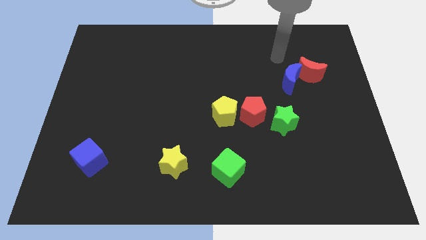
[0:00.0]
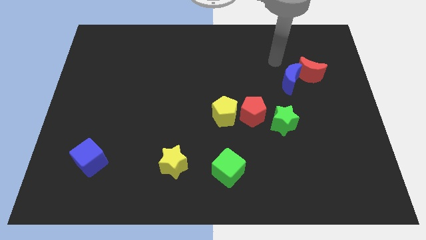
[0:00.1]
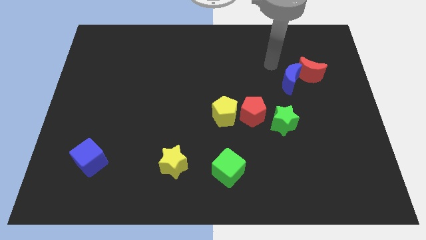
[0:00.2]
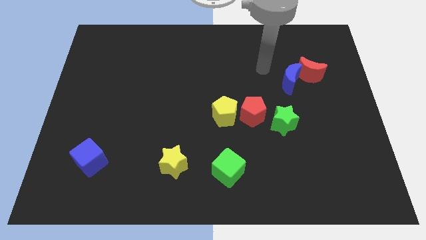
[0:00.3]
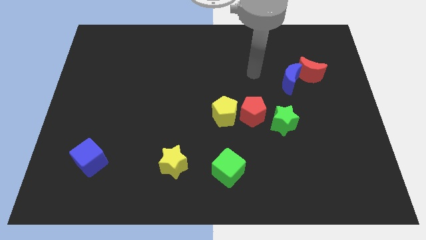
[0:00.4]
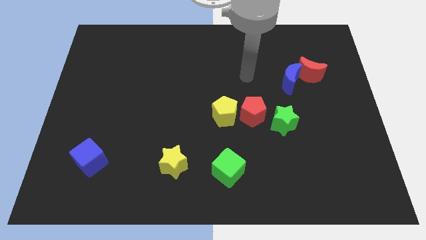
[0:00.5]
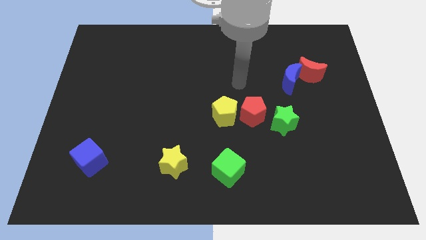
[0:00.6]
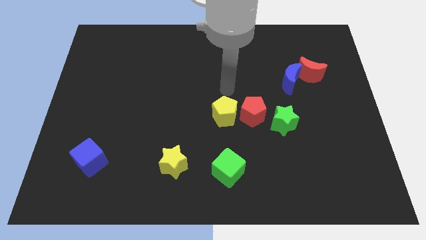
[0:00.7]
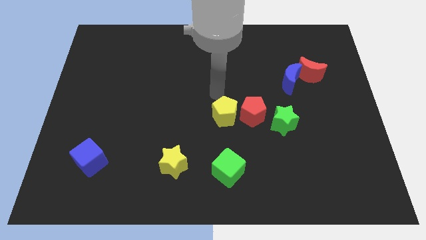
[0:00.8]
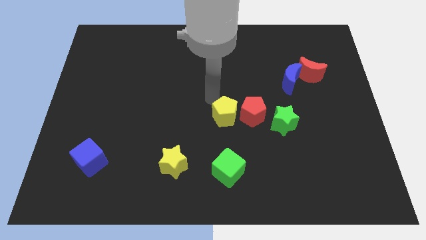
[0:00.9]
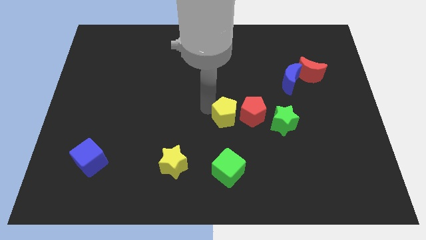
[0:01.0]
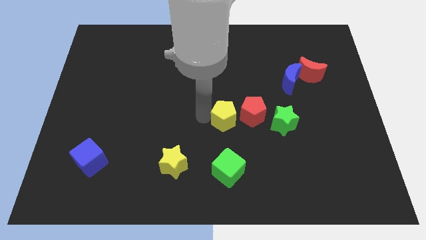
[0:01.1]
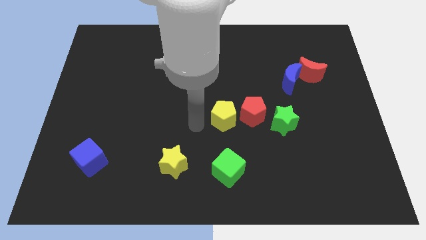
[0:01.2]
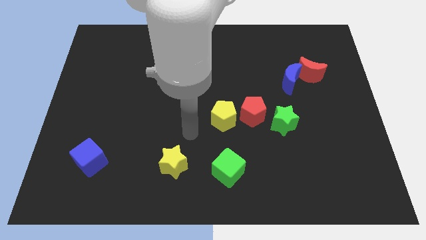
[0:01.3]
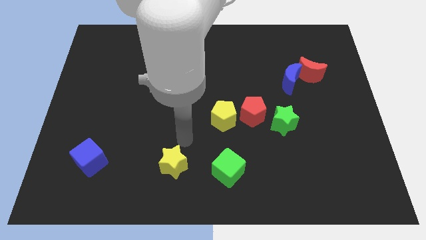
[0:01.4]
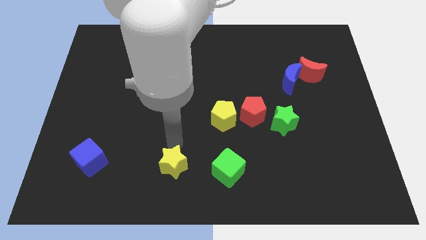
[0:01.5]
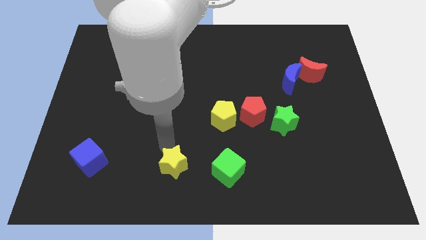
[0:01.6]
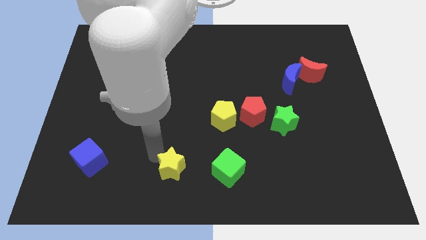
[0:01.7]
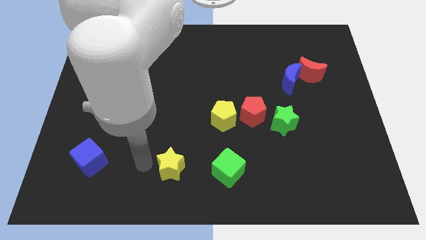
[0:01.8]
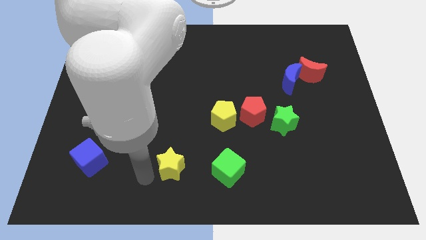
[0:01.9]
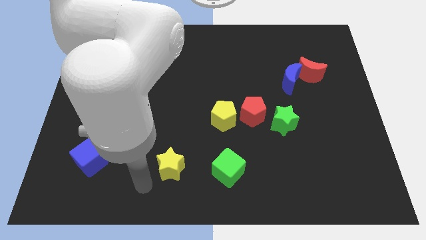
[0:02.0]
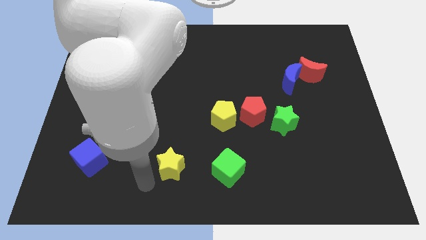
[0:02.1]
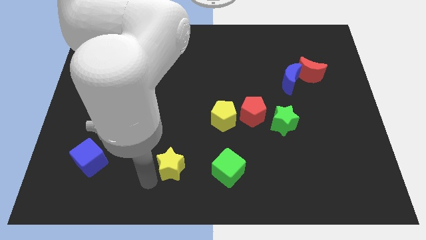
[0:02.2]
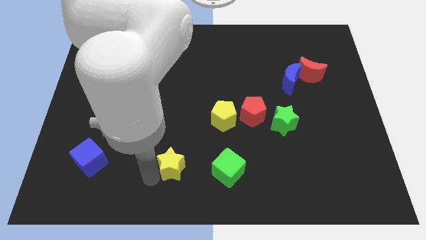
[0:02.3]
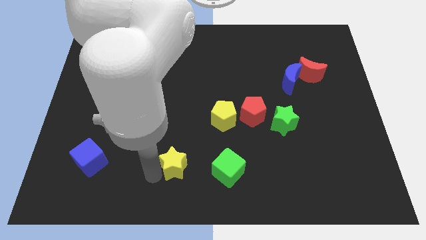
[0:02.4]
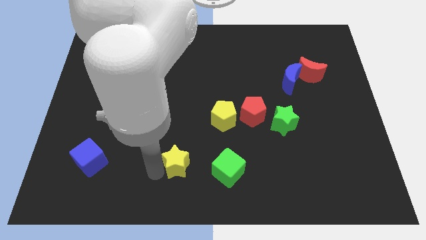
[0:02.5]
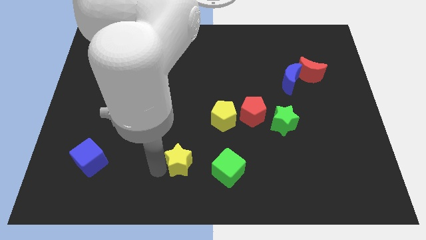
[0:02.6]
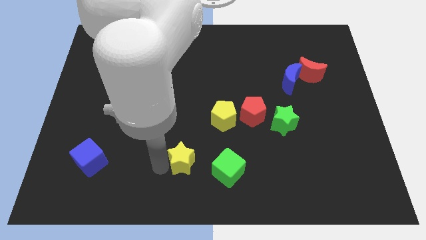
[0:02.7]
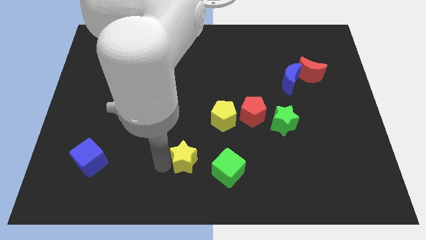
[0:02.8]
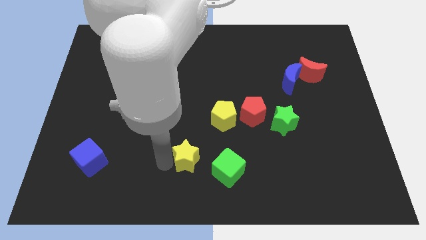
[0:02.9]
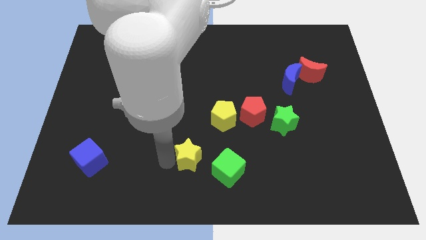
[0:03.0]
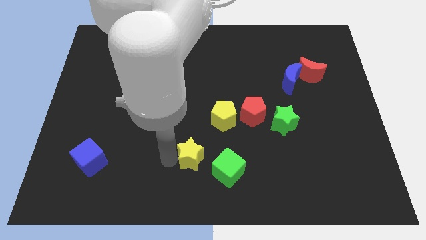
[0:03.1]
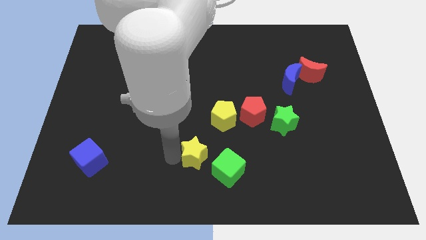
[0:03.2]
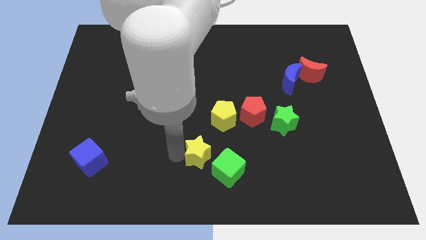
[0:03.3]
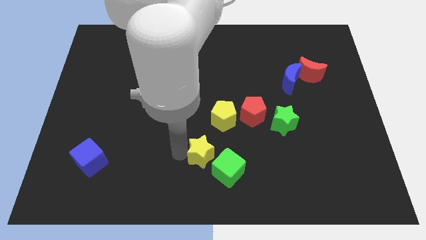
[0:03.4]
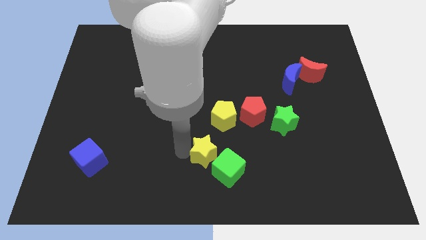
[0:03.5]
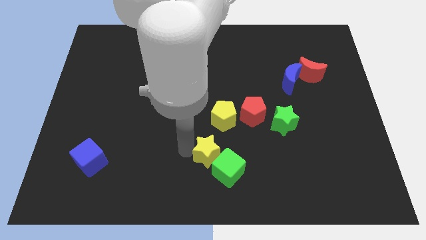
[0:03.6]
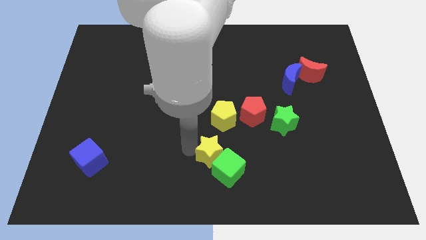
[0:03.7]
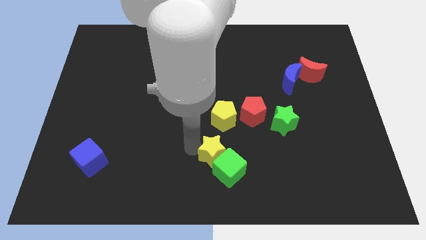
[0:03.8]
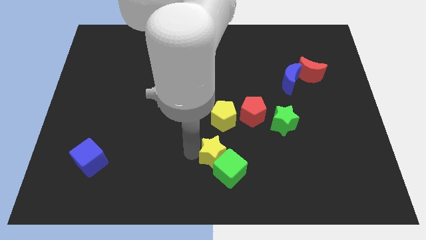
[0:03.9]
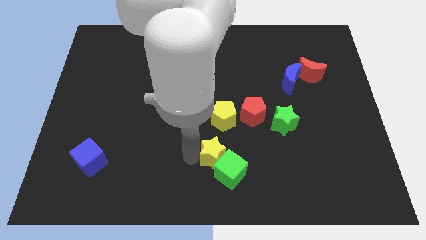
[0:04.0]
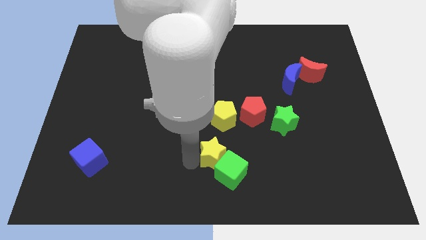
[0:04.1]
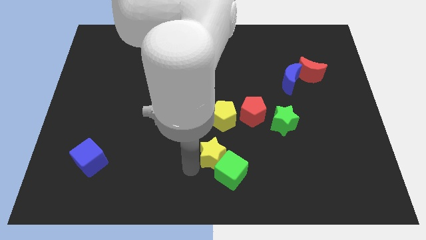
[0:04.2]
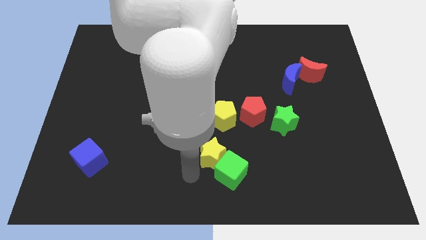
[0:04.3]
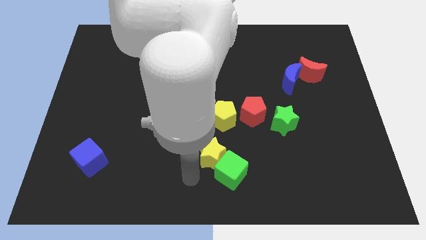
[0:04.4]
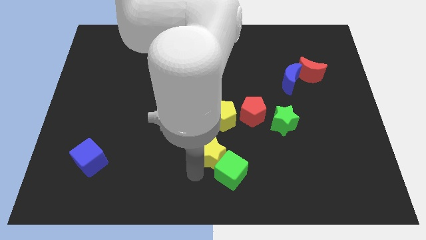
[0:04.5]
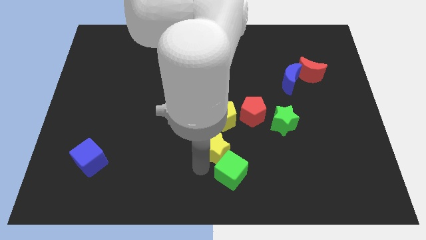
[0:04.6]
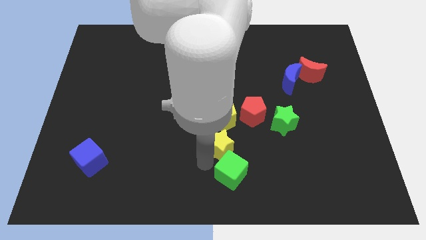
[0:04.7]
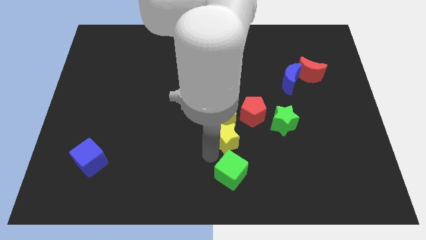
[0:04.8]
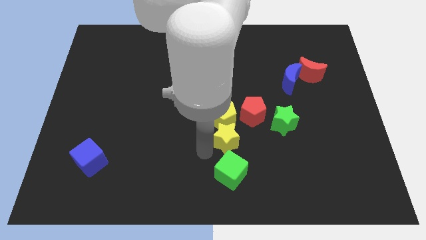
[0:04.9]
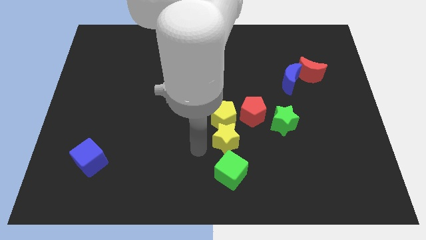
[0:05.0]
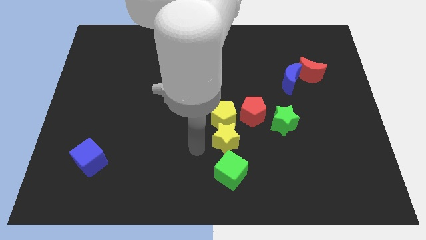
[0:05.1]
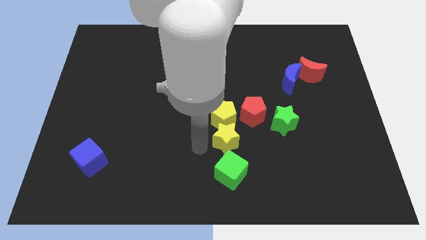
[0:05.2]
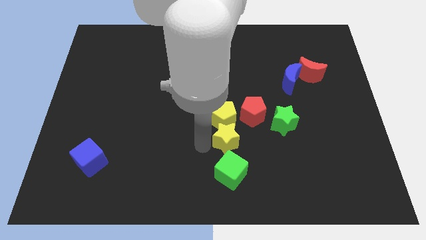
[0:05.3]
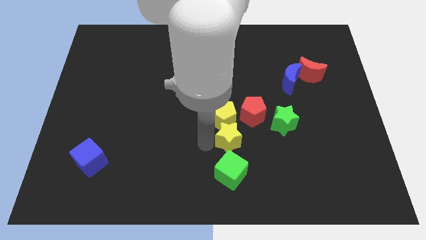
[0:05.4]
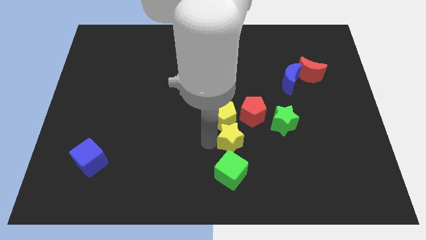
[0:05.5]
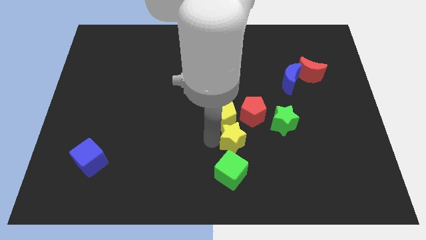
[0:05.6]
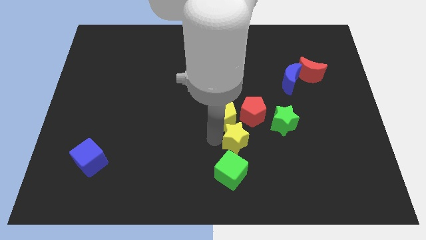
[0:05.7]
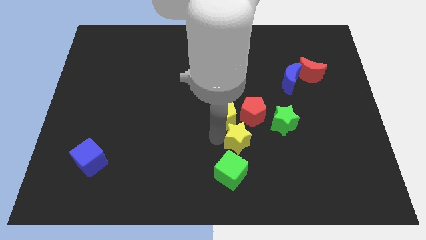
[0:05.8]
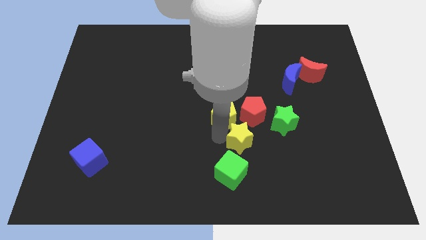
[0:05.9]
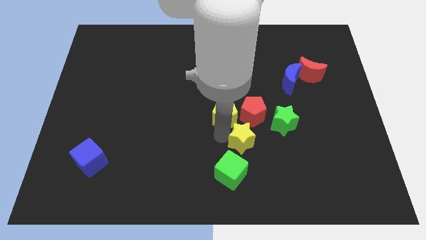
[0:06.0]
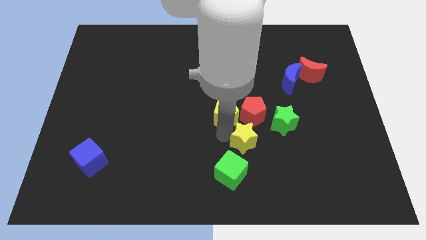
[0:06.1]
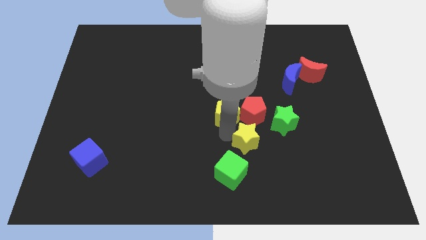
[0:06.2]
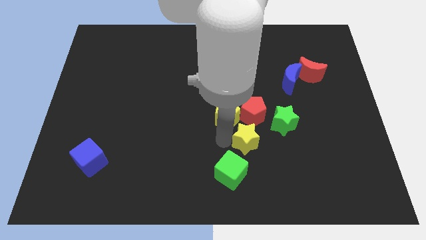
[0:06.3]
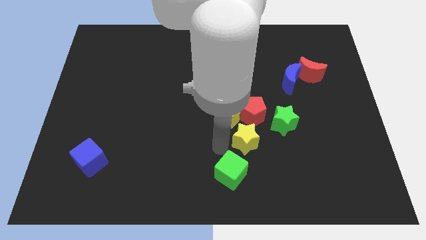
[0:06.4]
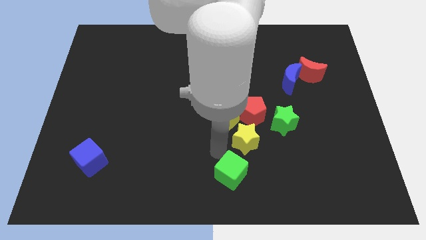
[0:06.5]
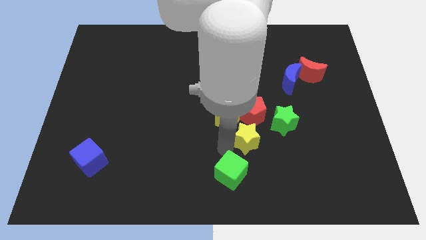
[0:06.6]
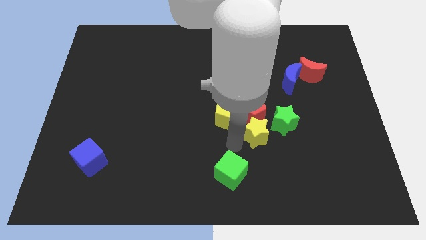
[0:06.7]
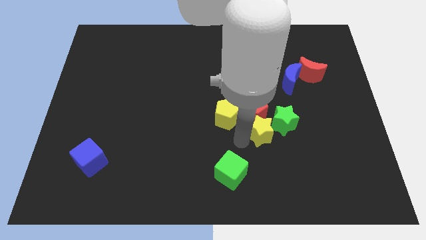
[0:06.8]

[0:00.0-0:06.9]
put the yellow star next to the green star
